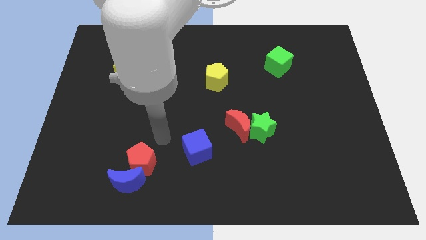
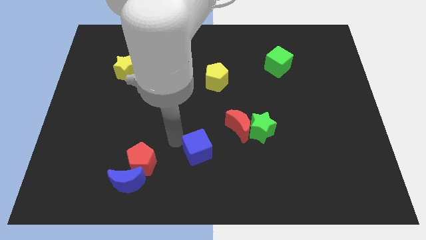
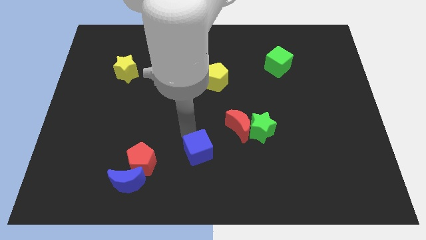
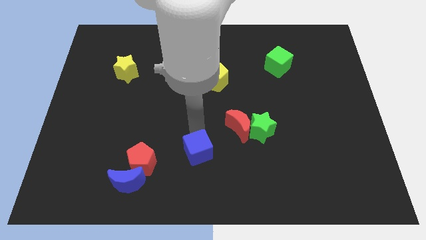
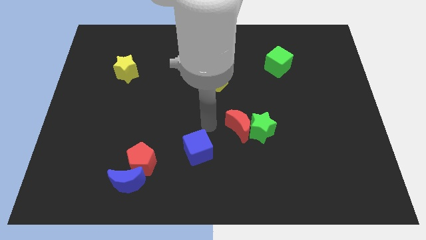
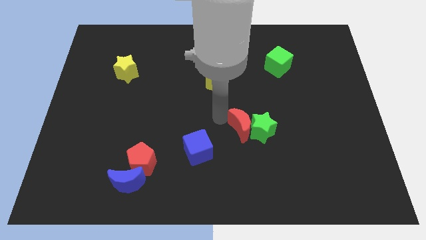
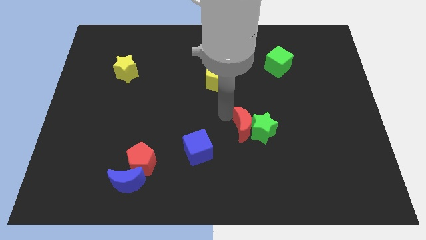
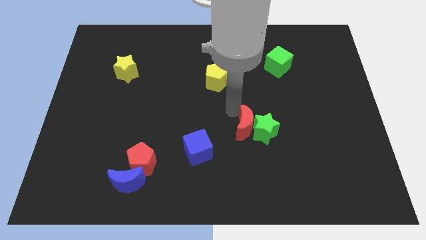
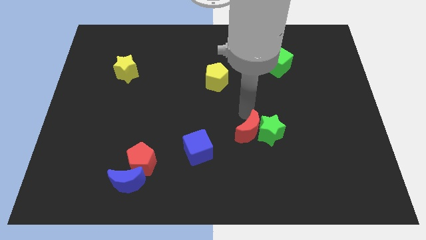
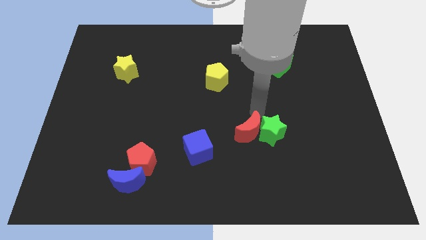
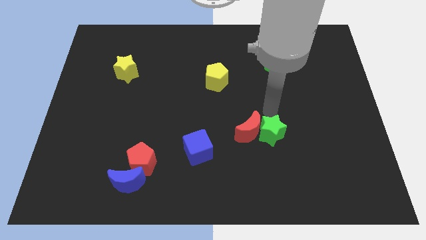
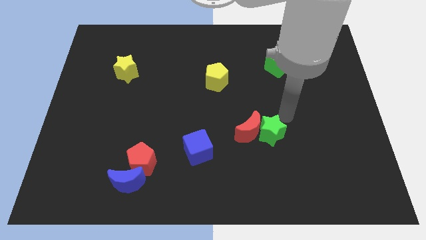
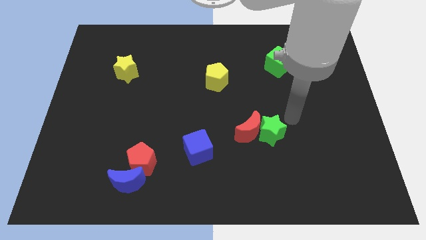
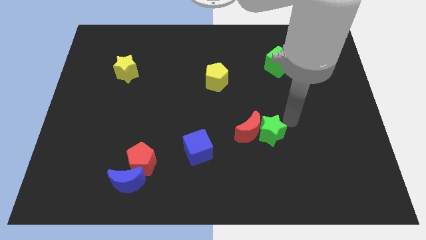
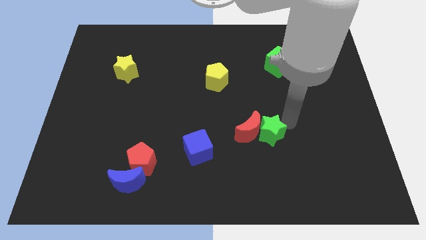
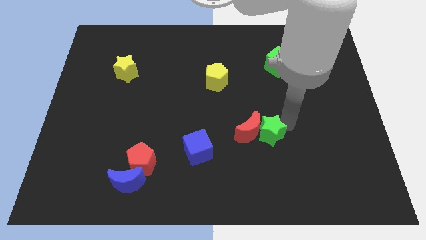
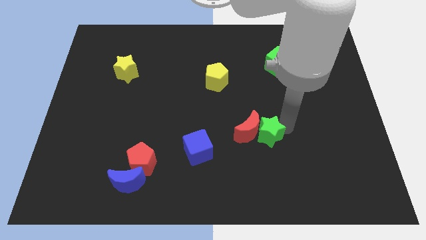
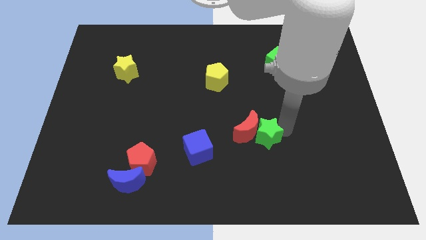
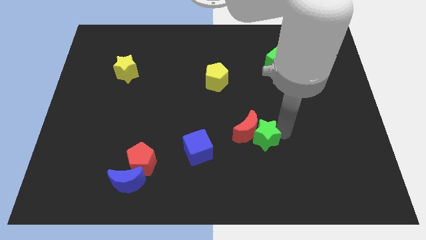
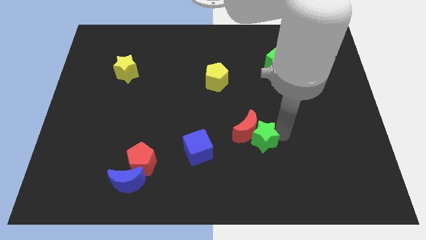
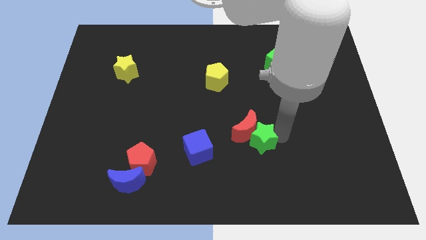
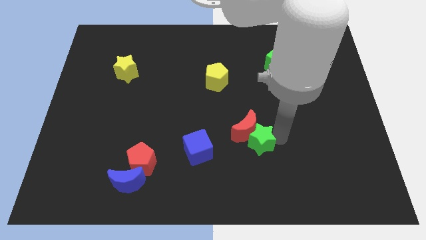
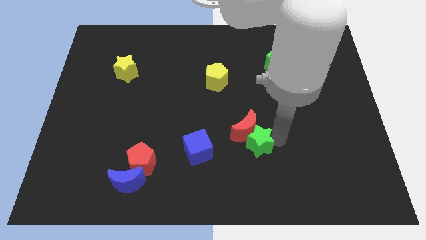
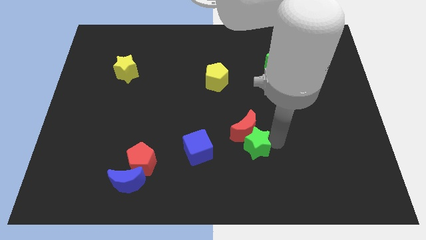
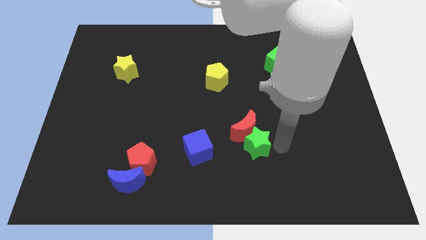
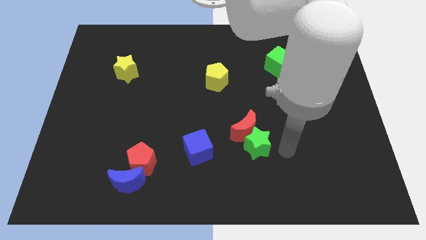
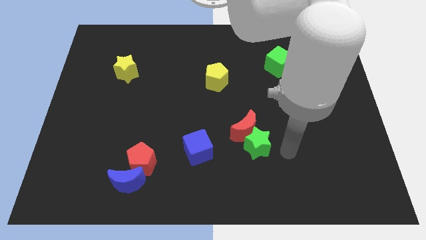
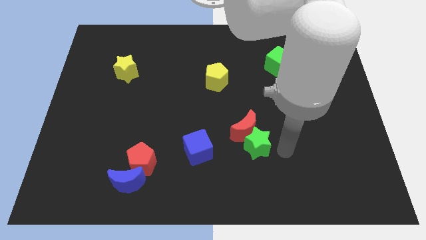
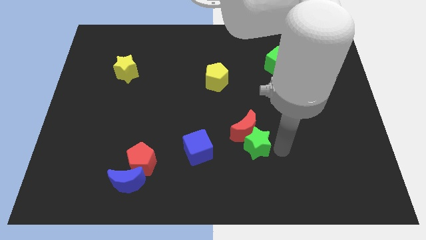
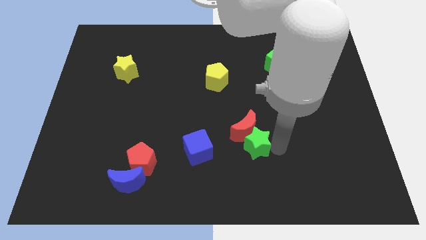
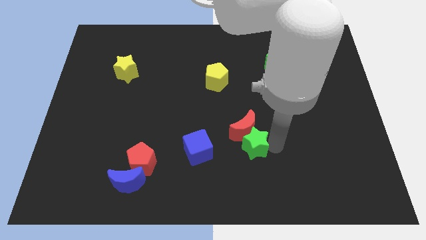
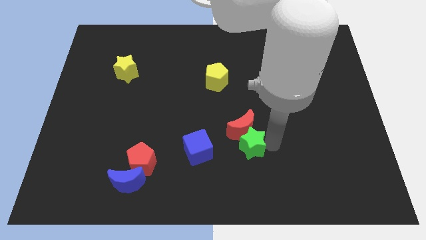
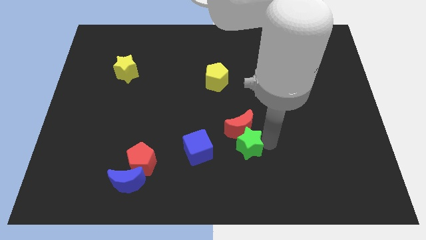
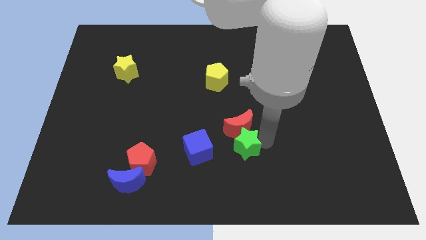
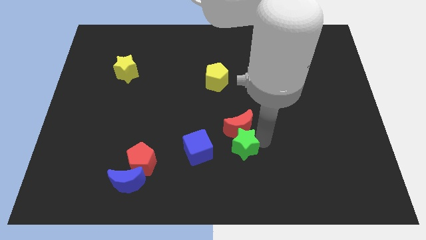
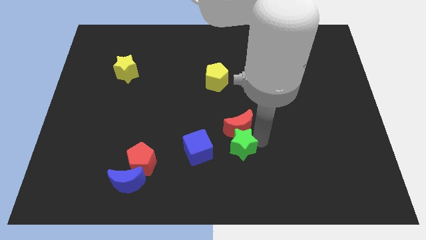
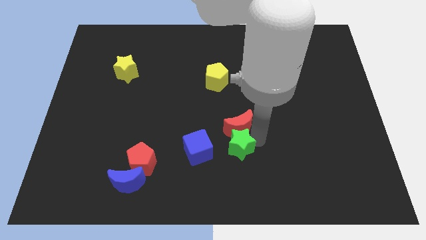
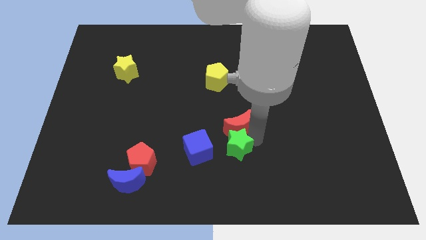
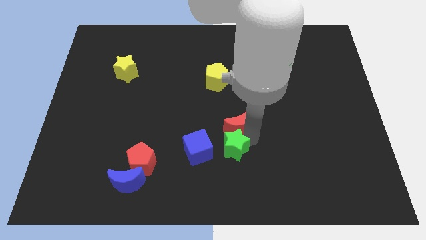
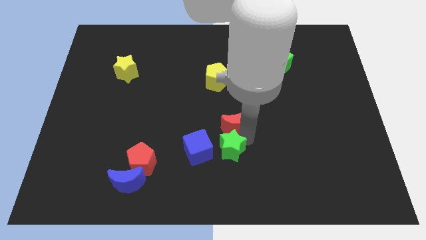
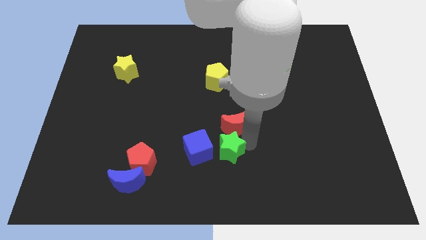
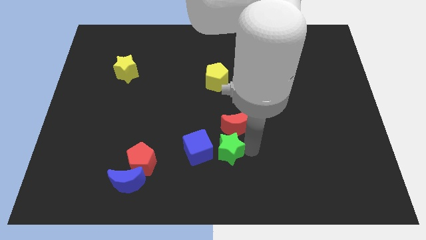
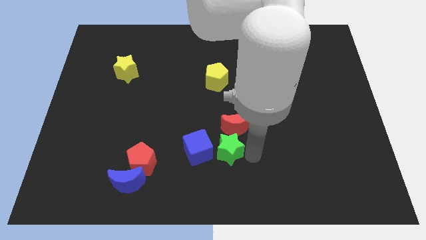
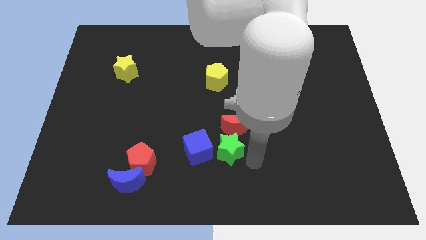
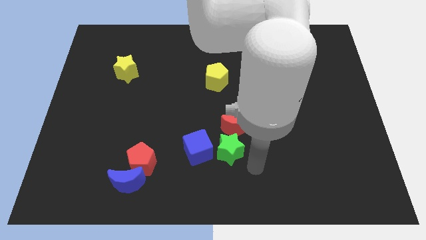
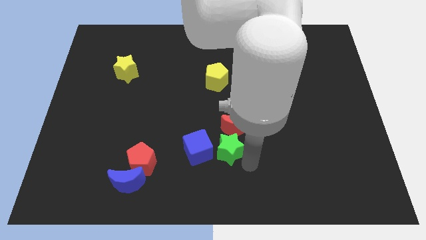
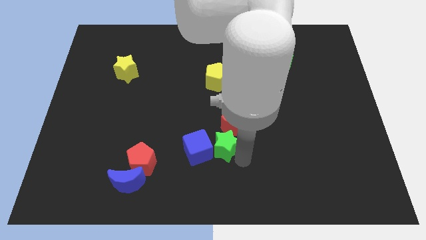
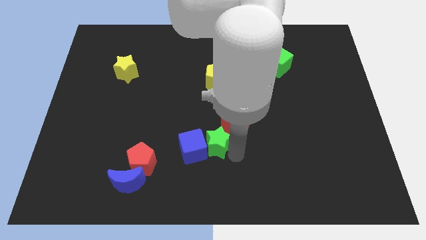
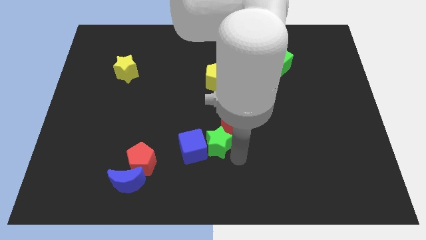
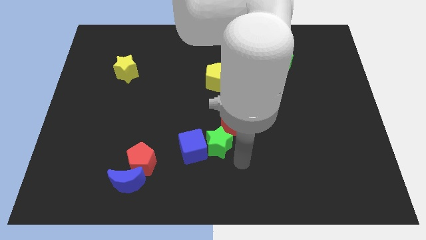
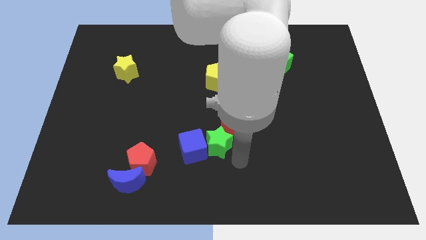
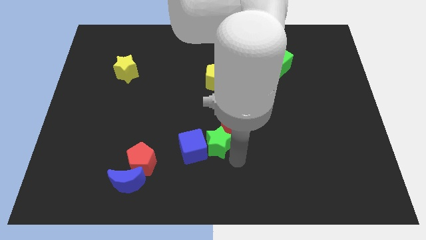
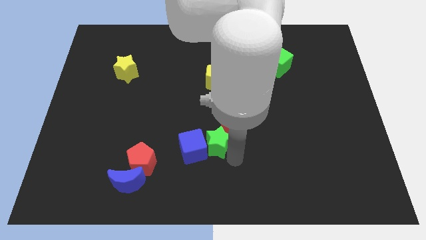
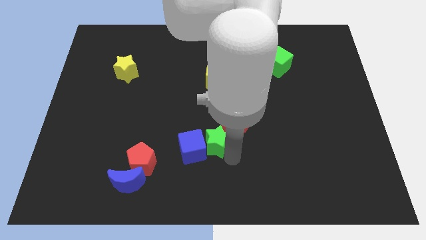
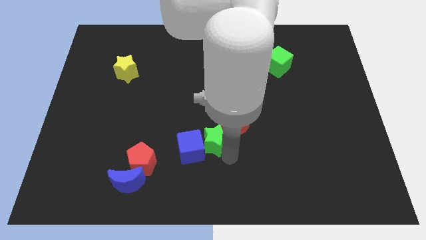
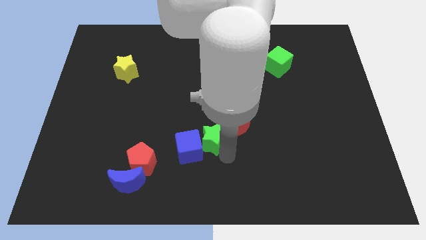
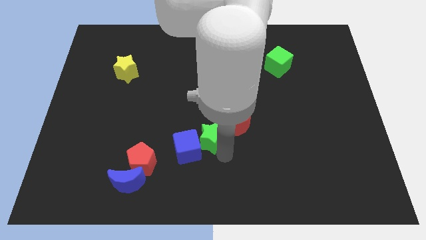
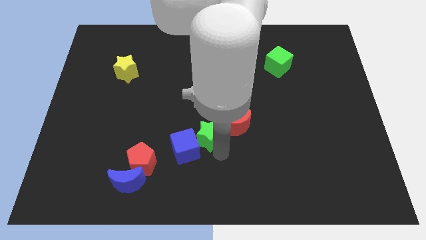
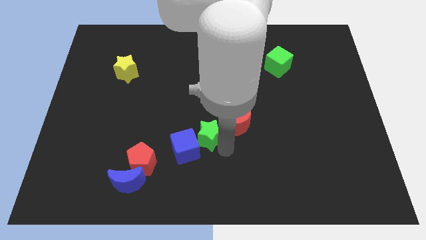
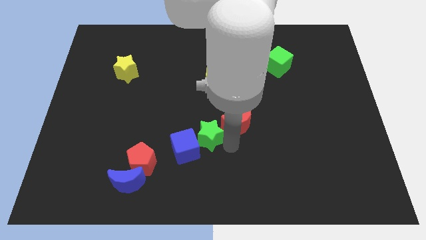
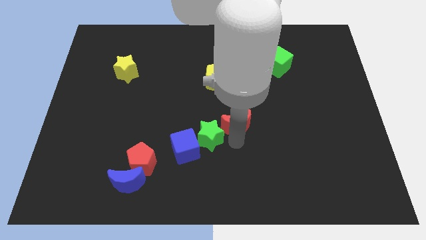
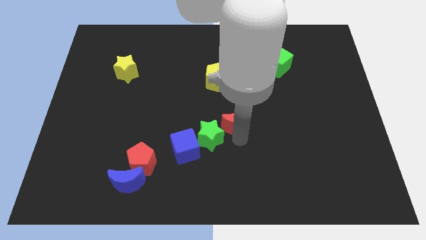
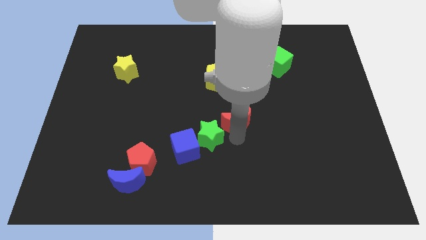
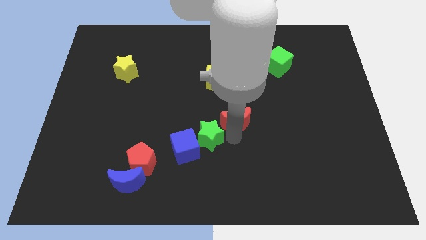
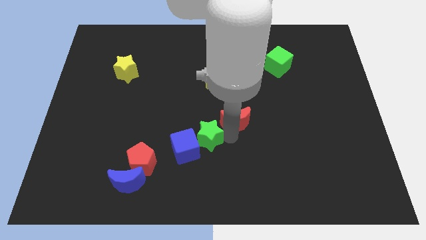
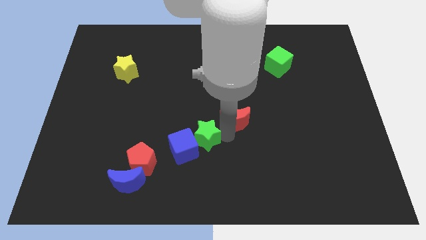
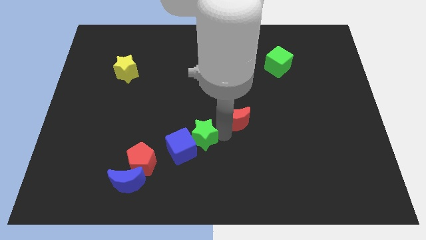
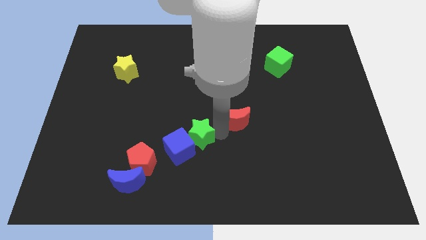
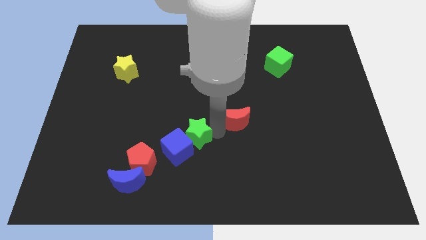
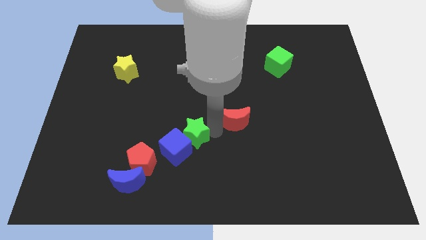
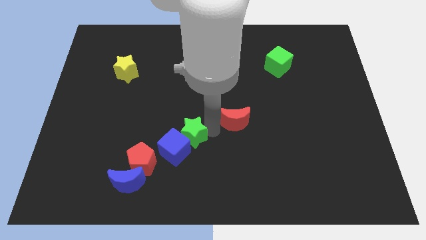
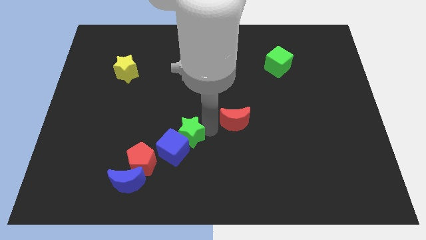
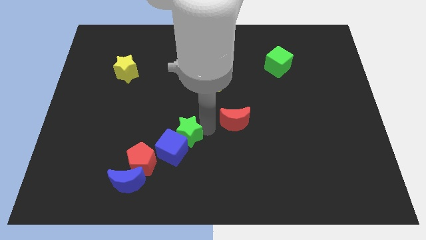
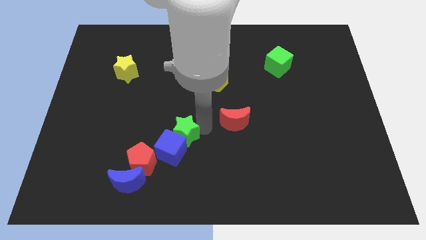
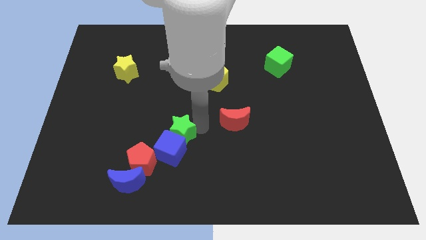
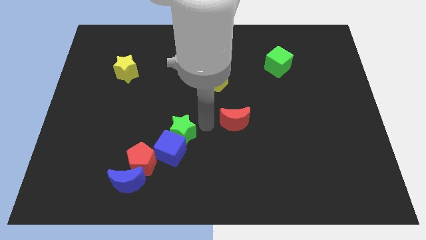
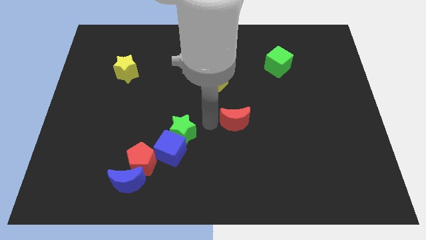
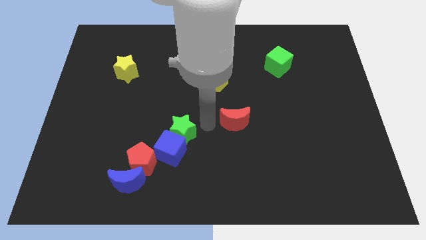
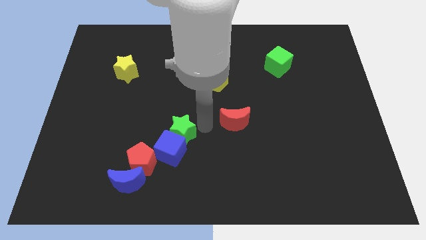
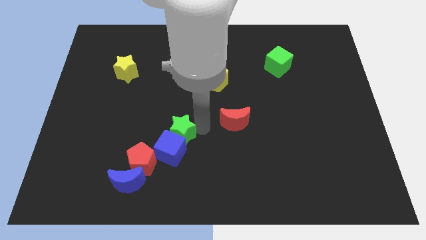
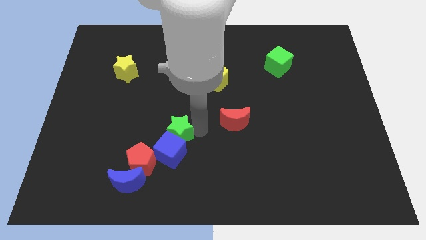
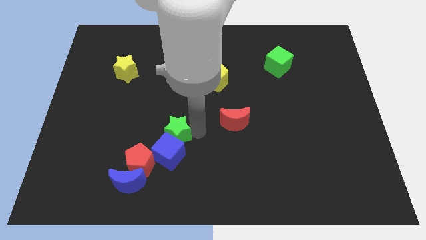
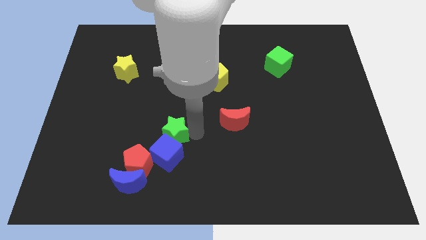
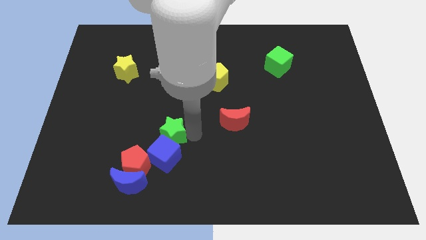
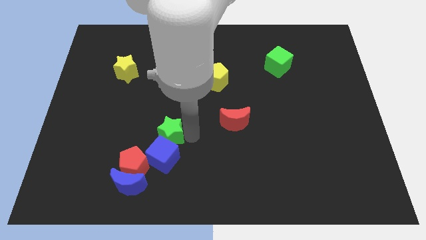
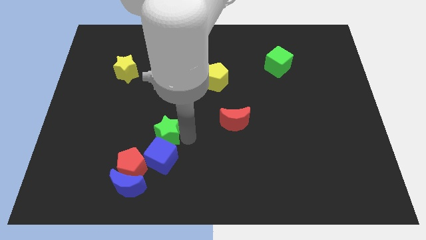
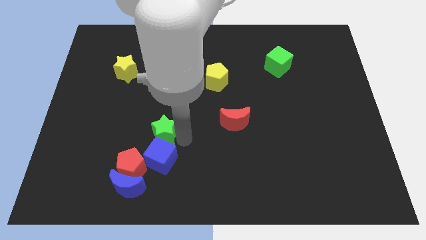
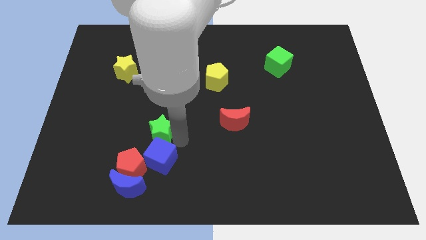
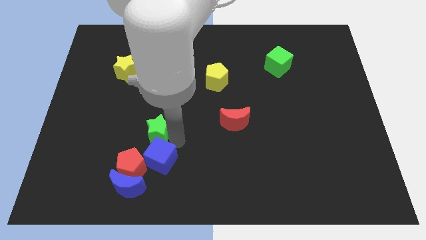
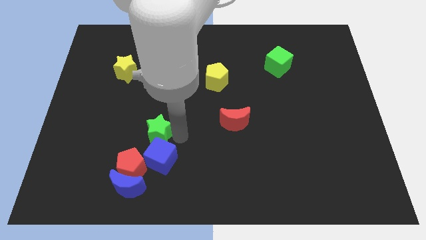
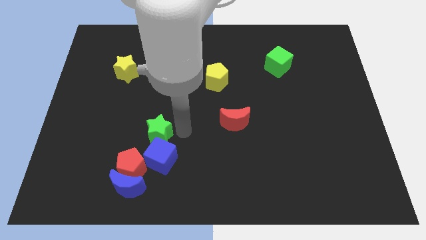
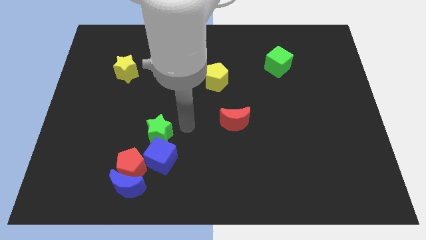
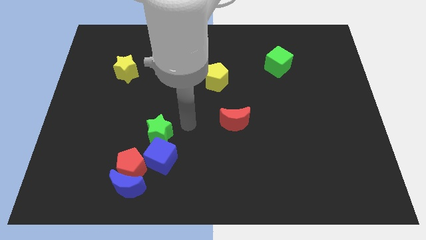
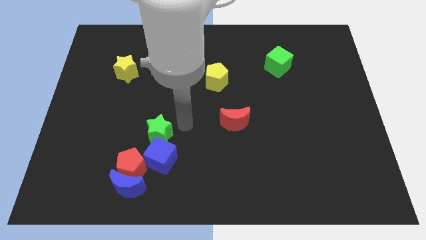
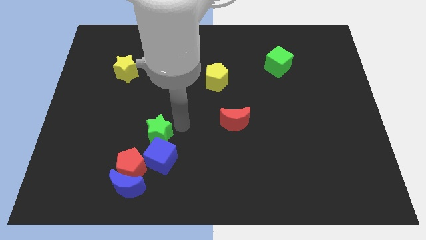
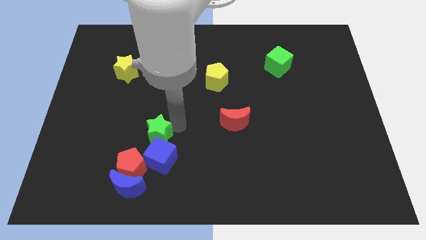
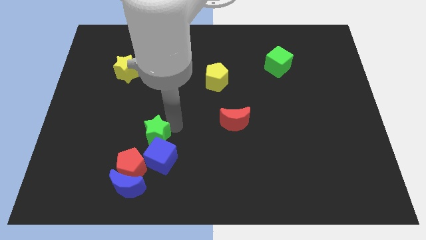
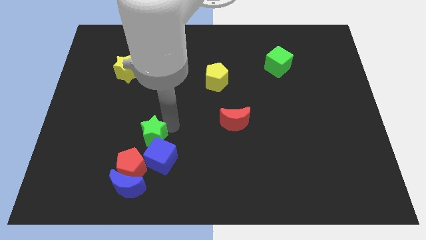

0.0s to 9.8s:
put the green star to the top side of the blue moon
